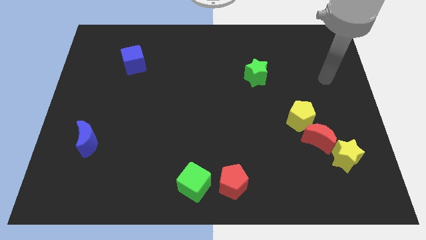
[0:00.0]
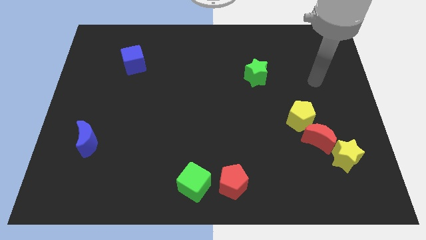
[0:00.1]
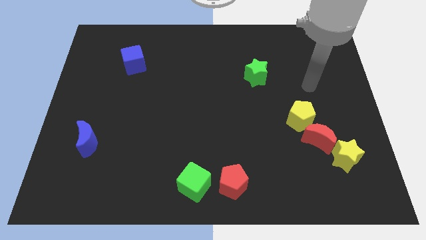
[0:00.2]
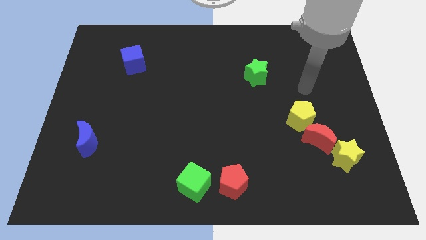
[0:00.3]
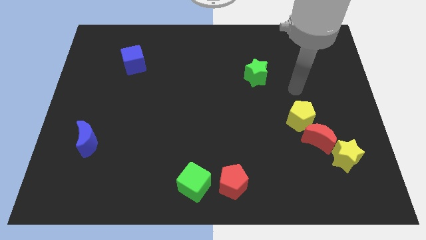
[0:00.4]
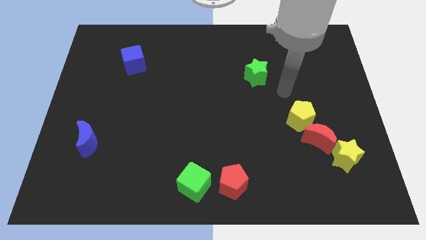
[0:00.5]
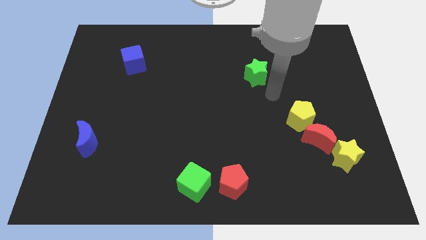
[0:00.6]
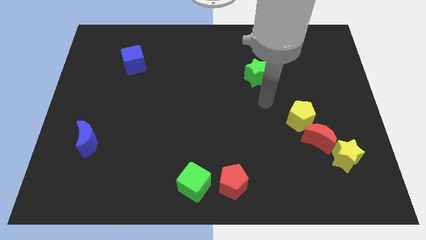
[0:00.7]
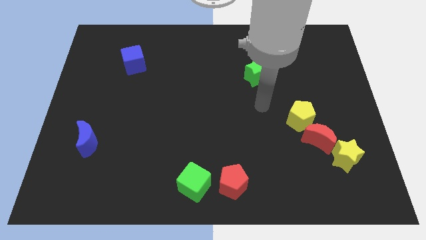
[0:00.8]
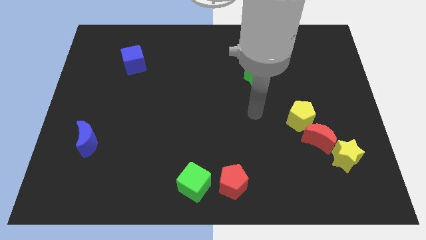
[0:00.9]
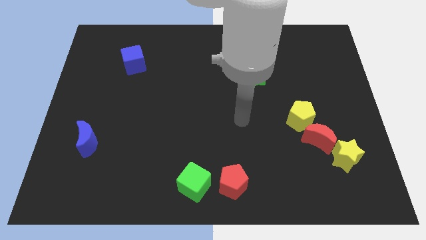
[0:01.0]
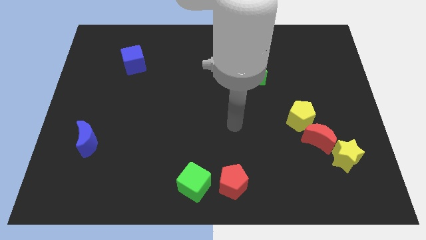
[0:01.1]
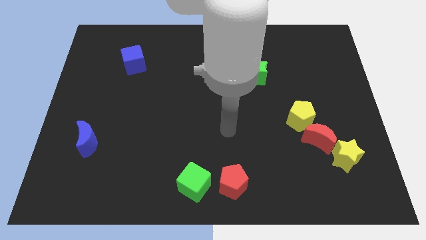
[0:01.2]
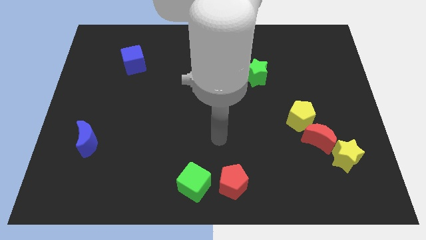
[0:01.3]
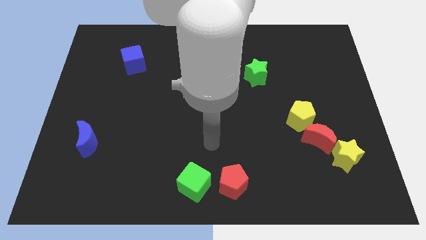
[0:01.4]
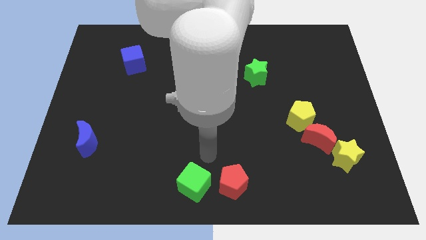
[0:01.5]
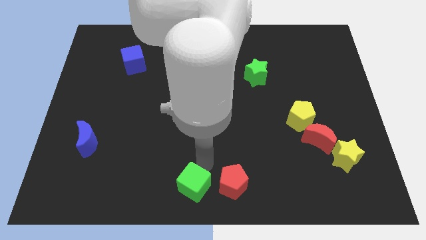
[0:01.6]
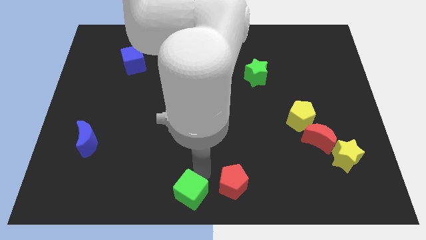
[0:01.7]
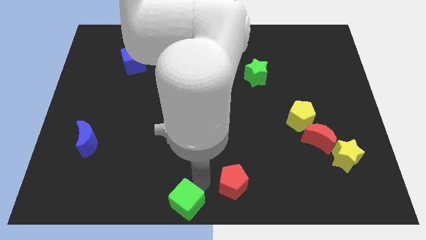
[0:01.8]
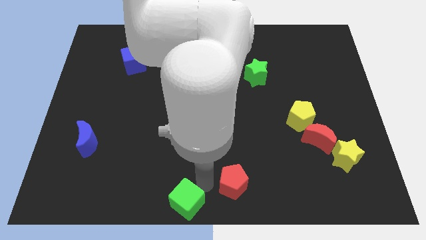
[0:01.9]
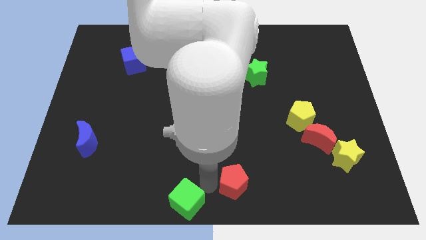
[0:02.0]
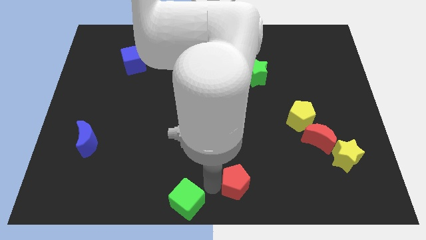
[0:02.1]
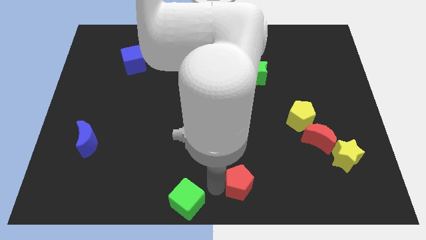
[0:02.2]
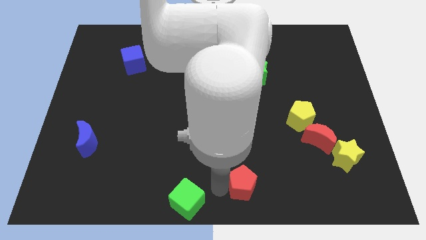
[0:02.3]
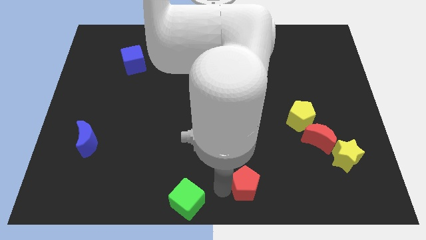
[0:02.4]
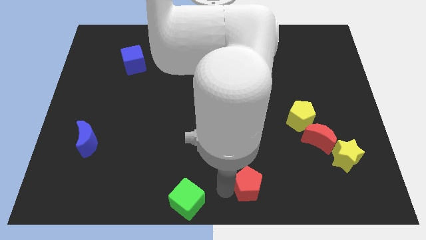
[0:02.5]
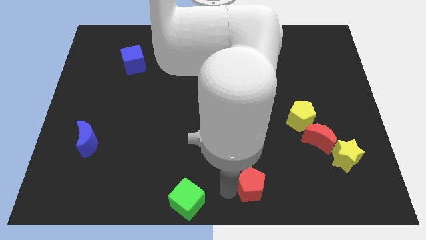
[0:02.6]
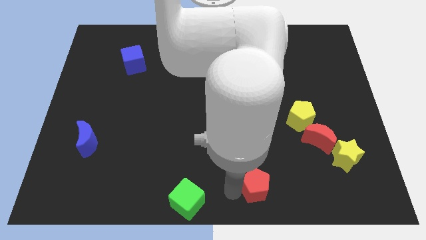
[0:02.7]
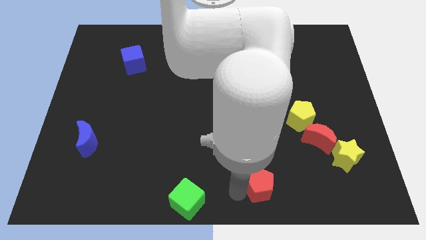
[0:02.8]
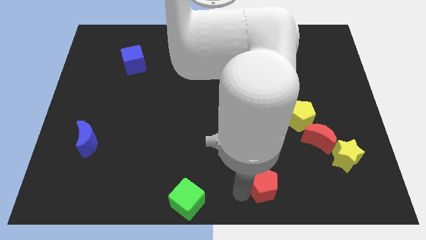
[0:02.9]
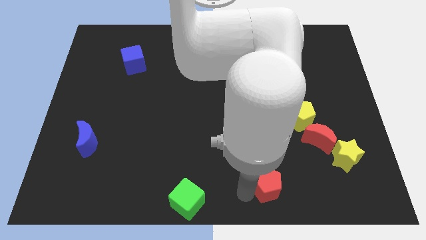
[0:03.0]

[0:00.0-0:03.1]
move the red pentagon a bit to the right

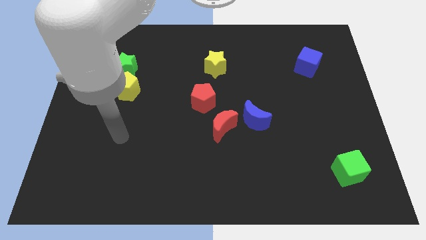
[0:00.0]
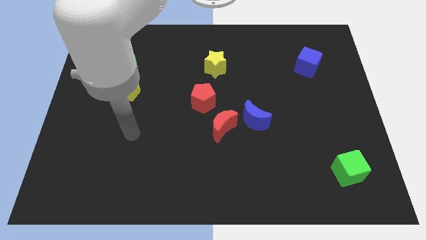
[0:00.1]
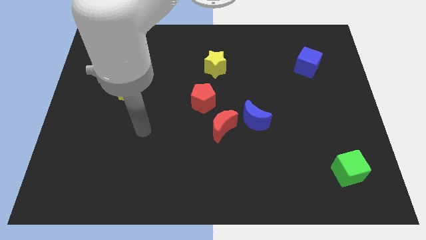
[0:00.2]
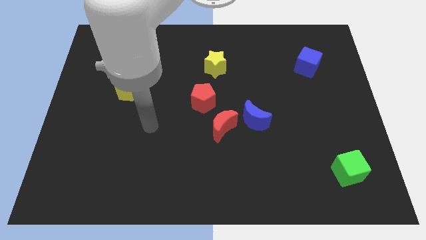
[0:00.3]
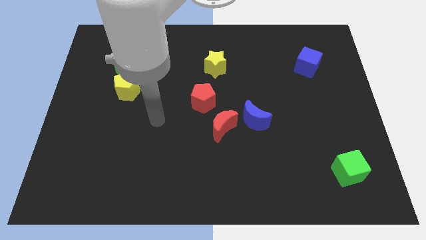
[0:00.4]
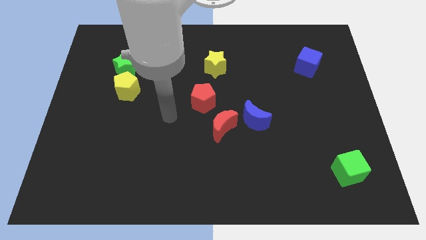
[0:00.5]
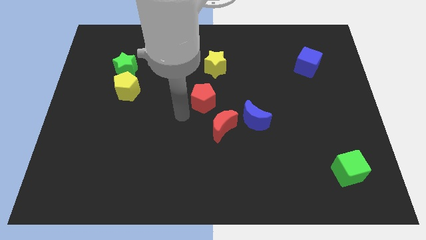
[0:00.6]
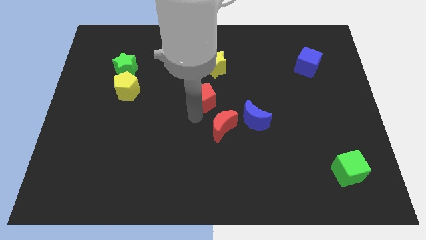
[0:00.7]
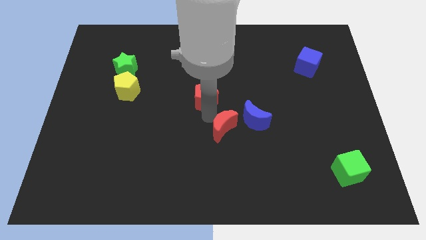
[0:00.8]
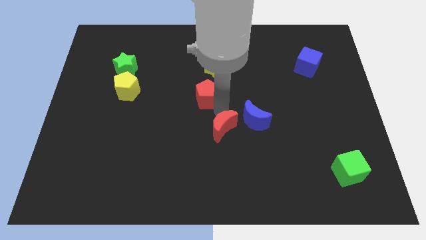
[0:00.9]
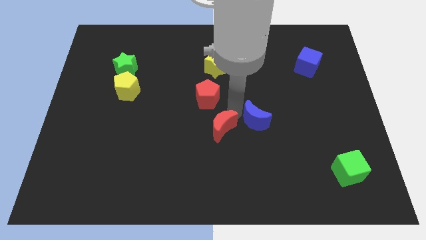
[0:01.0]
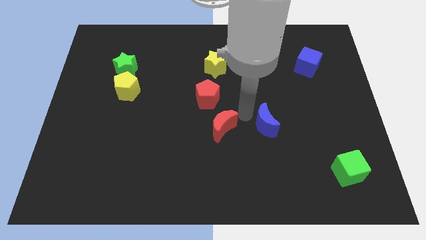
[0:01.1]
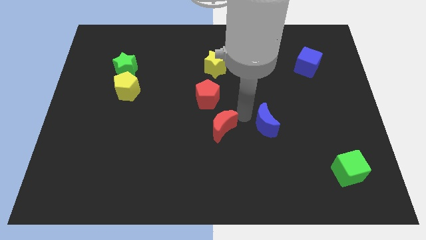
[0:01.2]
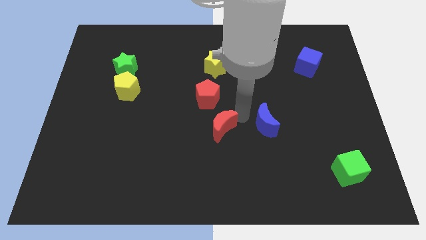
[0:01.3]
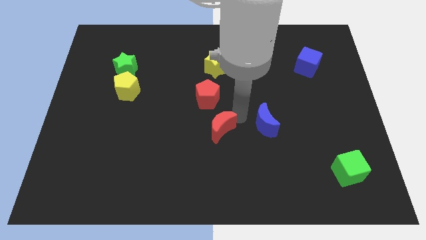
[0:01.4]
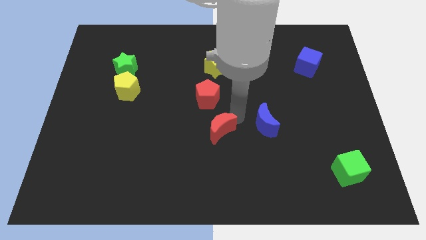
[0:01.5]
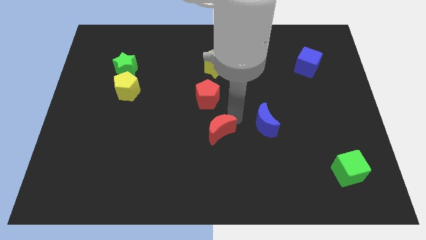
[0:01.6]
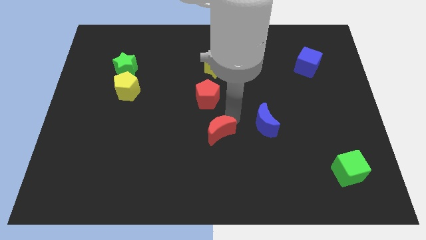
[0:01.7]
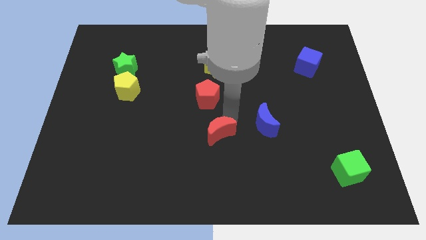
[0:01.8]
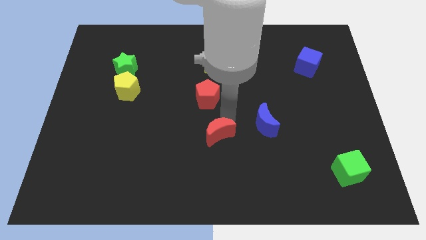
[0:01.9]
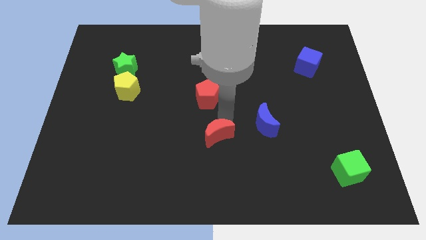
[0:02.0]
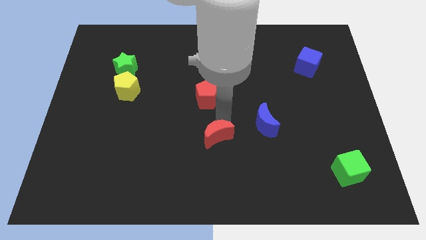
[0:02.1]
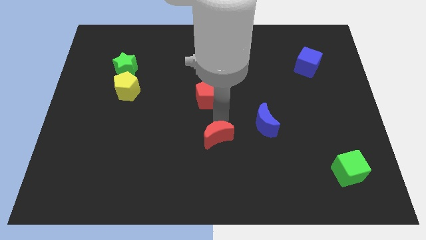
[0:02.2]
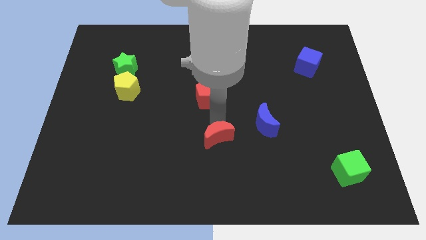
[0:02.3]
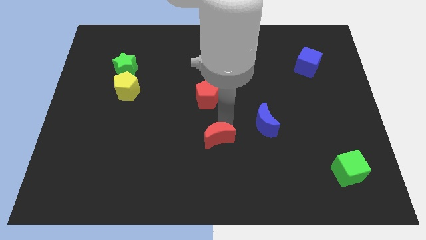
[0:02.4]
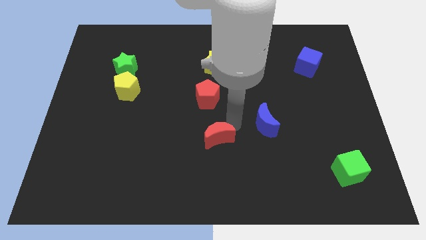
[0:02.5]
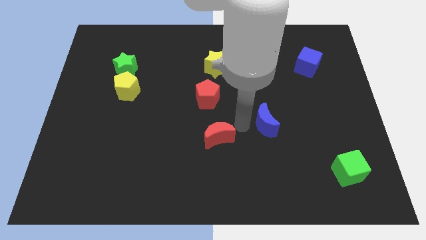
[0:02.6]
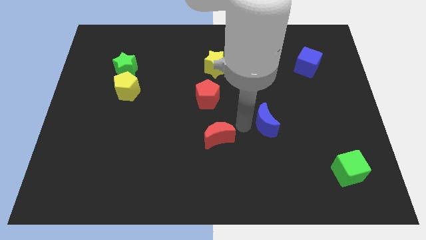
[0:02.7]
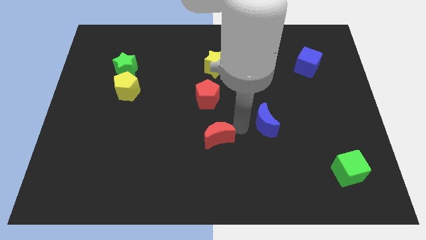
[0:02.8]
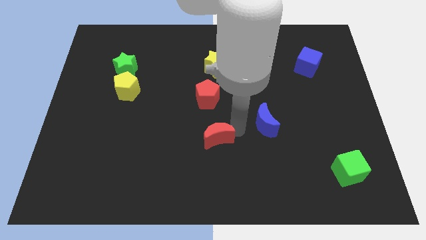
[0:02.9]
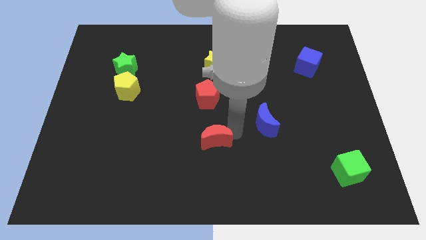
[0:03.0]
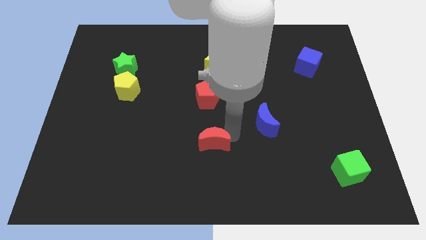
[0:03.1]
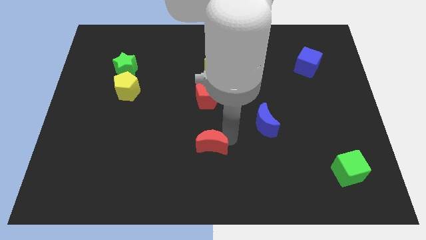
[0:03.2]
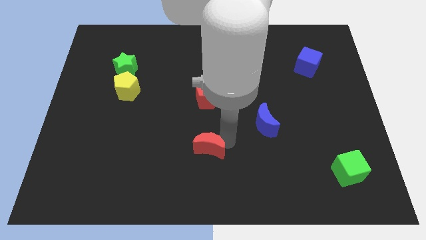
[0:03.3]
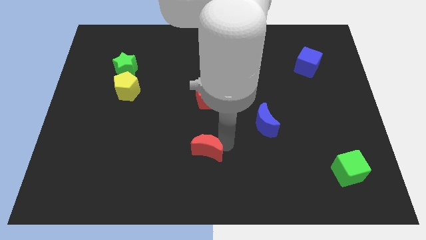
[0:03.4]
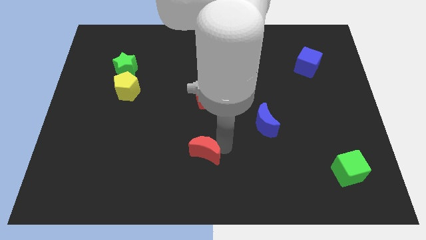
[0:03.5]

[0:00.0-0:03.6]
slightly move the red moon diagonally downwards and to the left

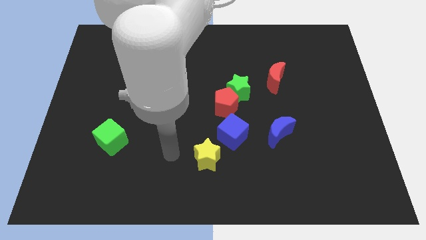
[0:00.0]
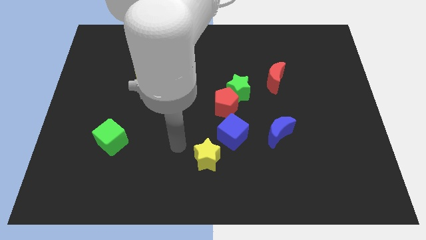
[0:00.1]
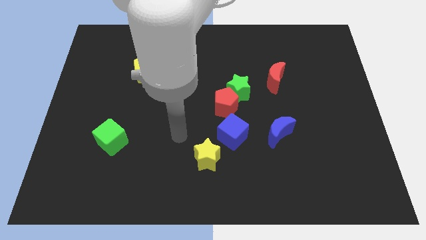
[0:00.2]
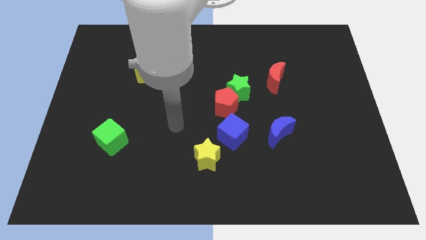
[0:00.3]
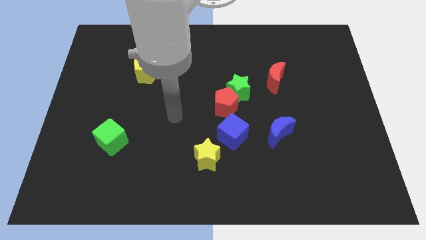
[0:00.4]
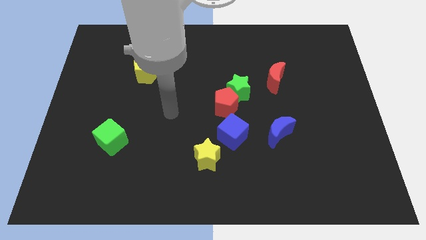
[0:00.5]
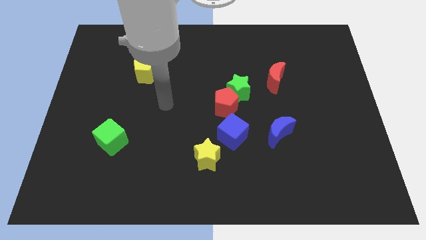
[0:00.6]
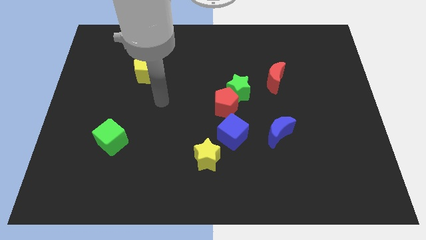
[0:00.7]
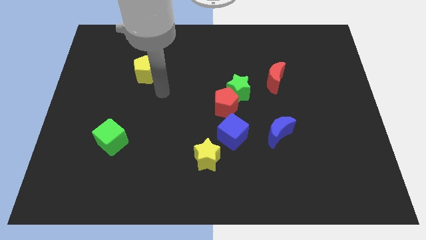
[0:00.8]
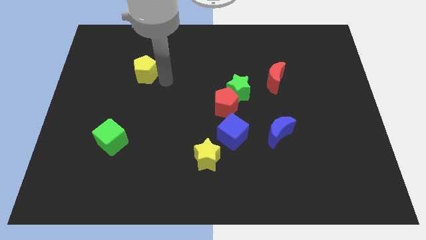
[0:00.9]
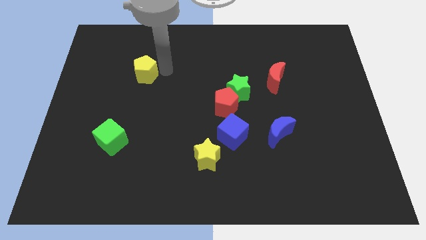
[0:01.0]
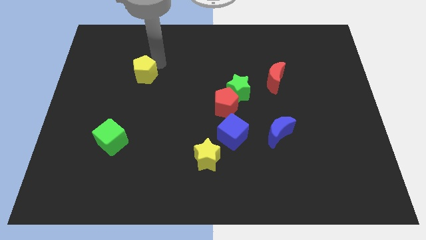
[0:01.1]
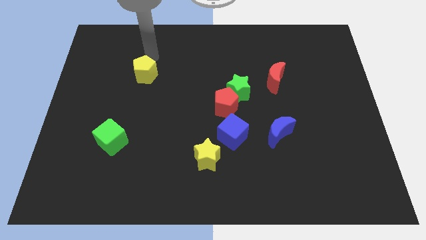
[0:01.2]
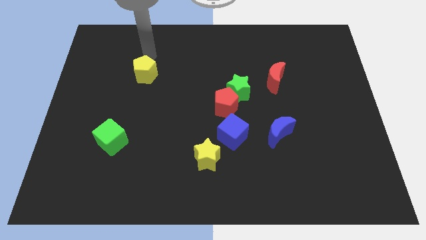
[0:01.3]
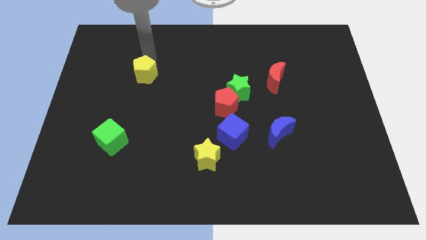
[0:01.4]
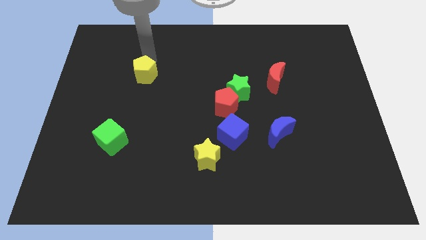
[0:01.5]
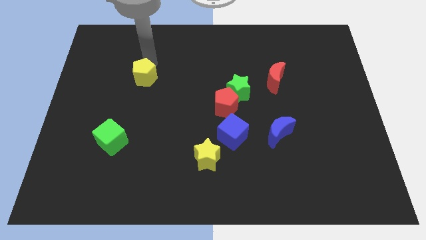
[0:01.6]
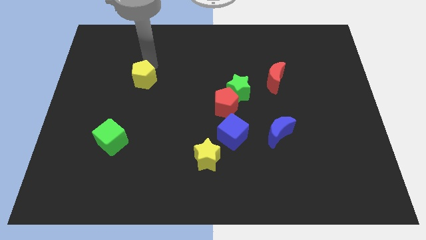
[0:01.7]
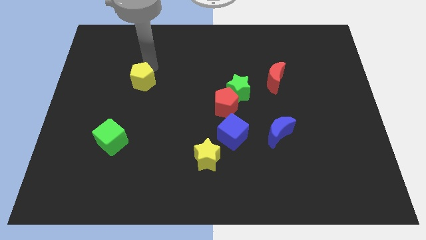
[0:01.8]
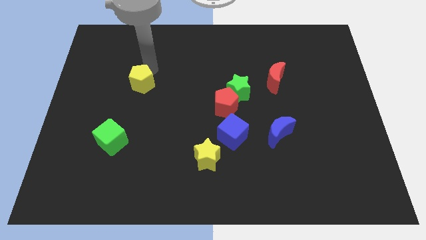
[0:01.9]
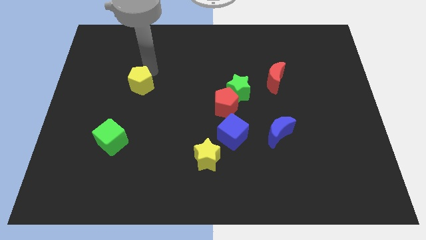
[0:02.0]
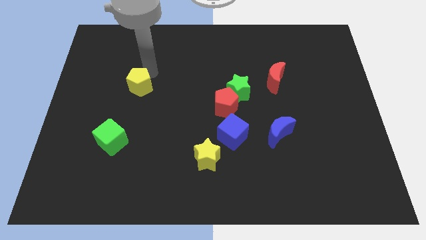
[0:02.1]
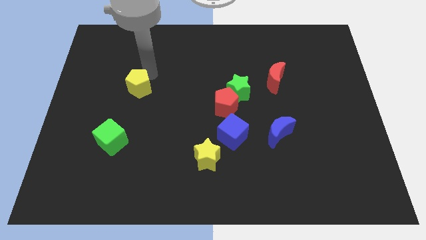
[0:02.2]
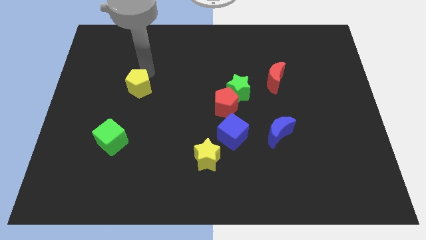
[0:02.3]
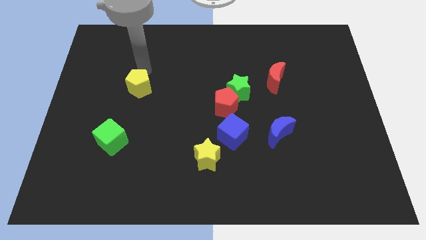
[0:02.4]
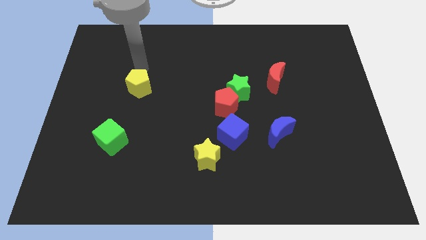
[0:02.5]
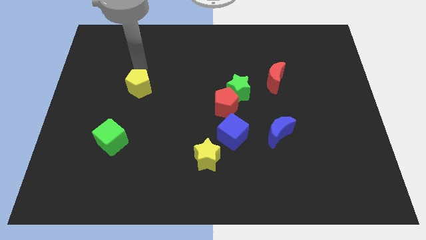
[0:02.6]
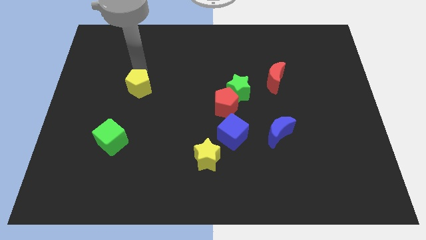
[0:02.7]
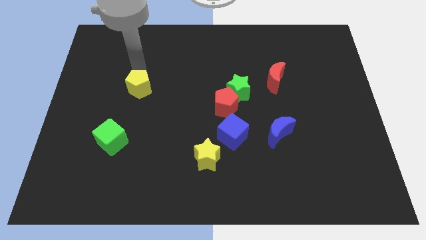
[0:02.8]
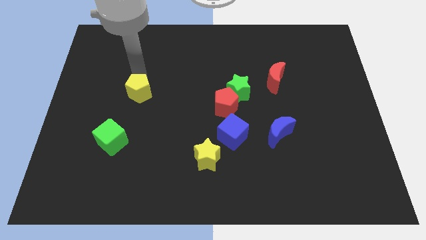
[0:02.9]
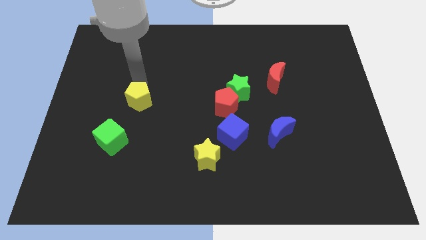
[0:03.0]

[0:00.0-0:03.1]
slide the yellow pentagon somewhat downwards
